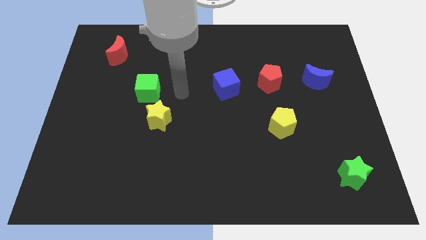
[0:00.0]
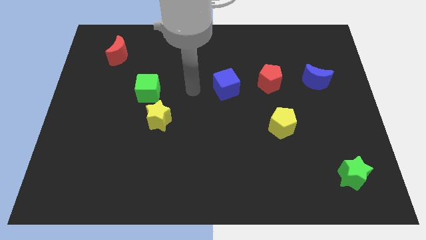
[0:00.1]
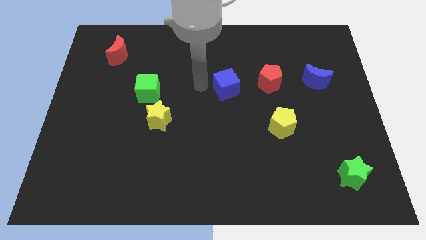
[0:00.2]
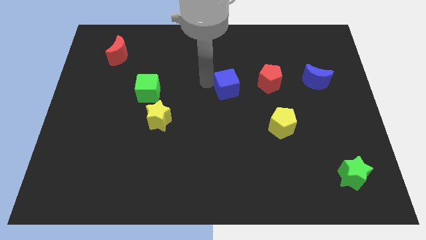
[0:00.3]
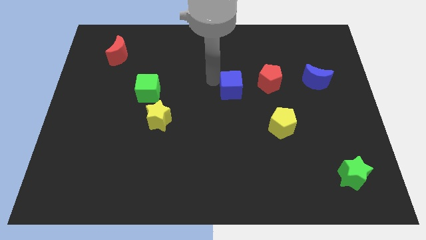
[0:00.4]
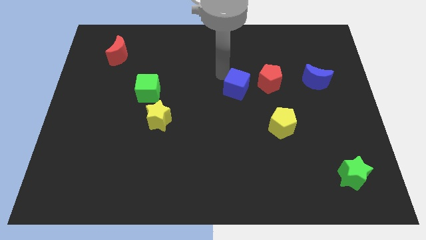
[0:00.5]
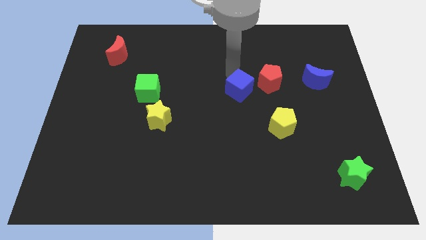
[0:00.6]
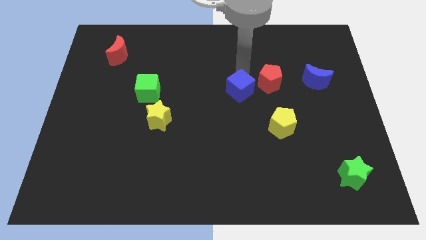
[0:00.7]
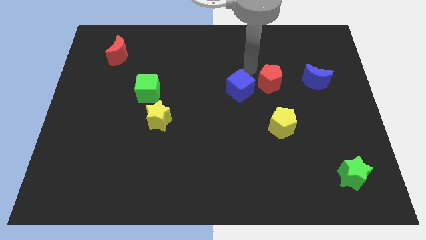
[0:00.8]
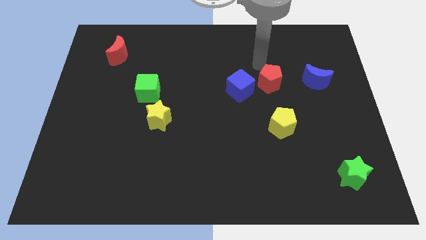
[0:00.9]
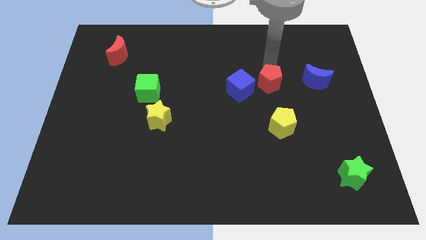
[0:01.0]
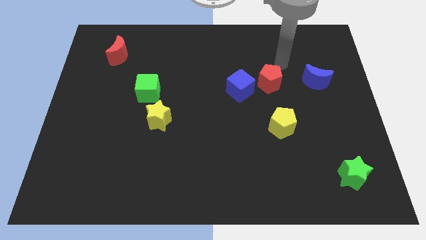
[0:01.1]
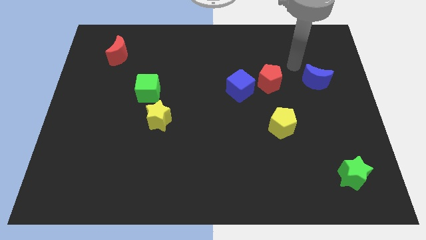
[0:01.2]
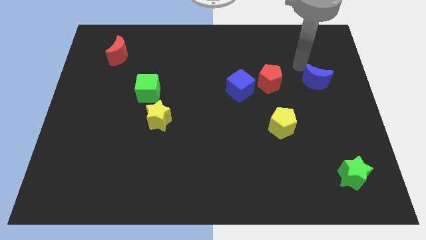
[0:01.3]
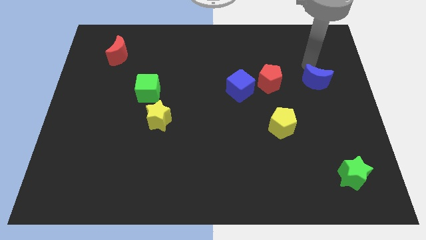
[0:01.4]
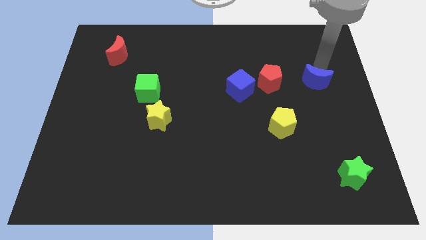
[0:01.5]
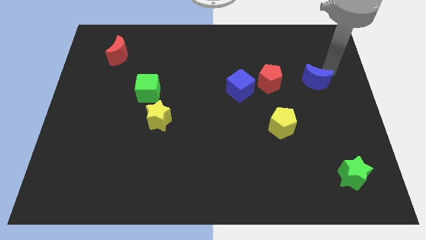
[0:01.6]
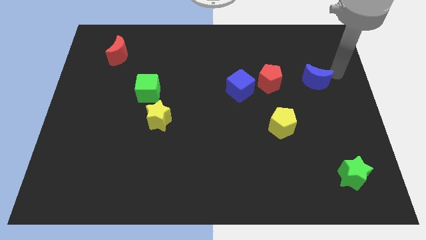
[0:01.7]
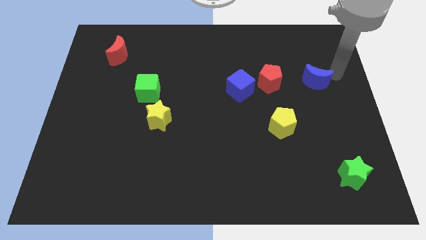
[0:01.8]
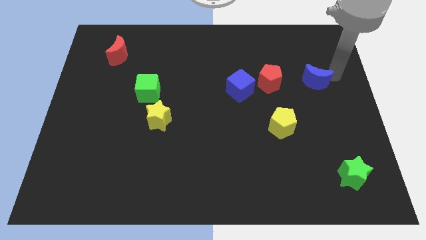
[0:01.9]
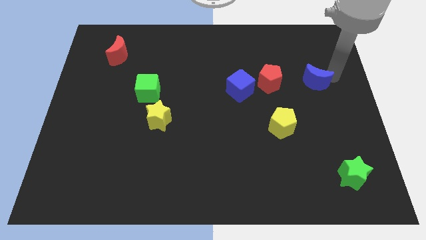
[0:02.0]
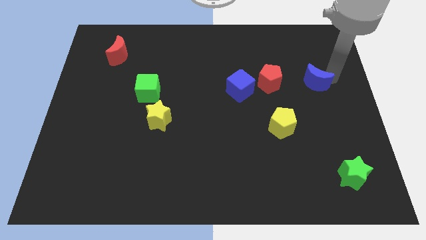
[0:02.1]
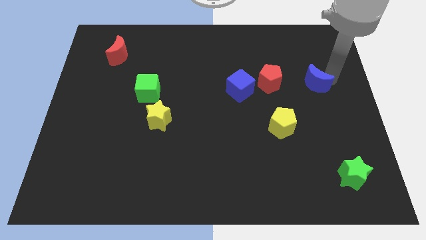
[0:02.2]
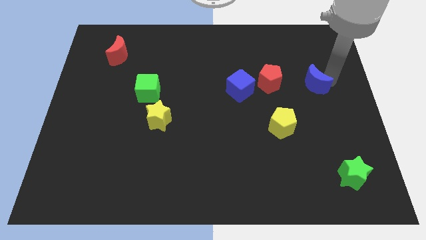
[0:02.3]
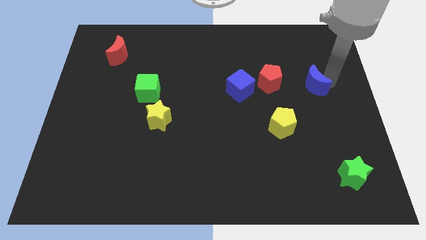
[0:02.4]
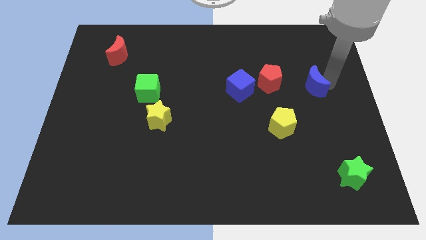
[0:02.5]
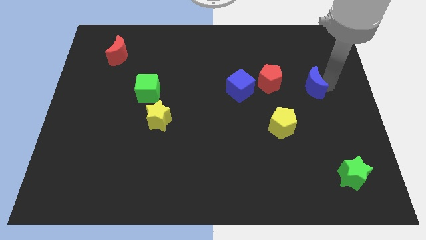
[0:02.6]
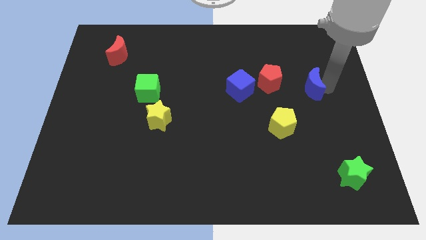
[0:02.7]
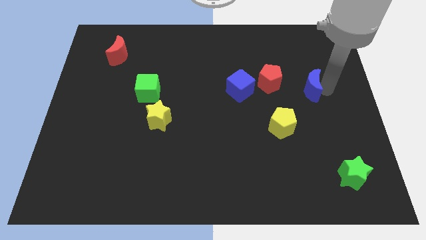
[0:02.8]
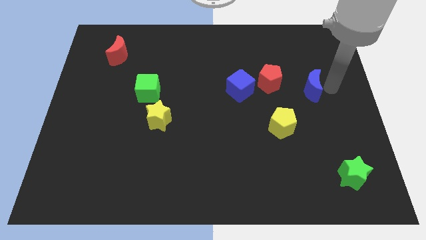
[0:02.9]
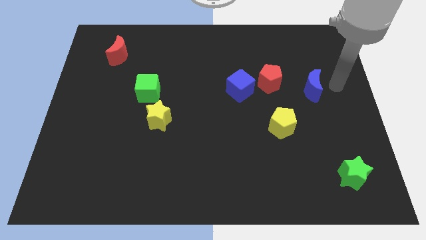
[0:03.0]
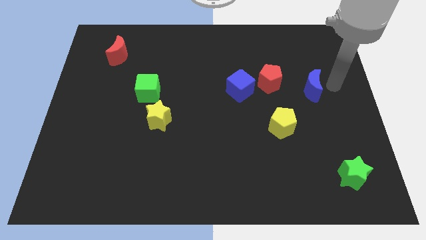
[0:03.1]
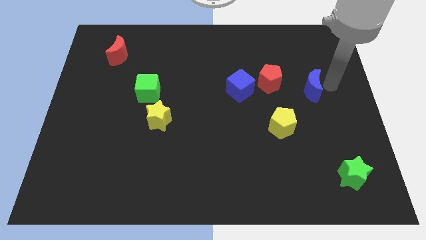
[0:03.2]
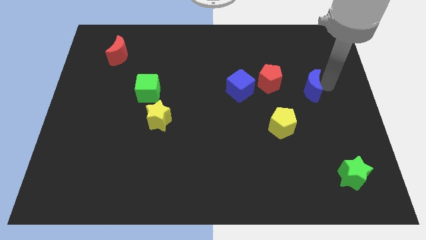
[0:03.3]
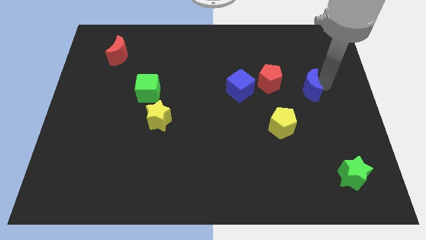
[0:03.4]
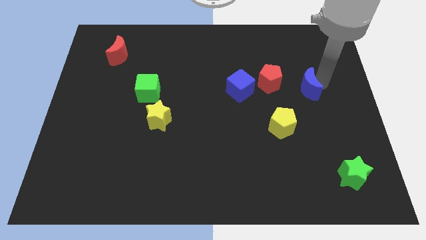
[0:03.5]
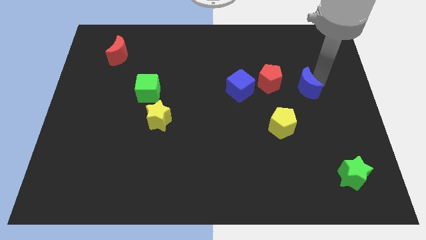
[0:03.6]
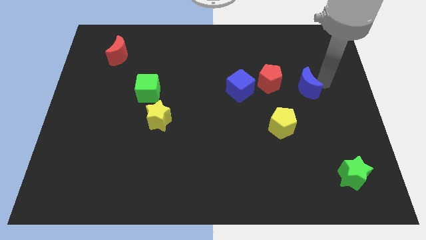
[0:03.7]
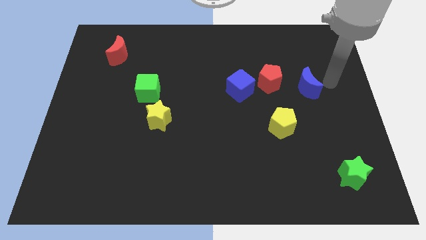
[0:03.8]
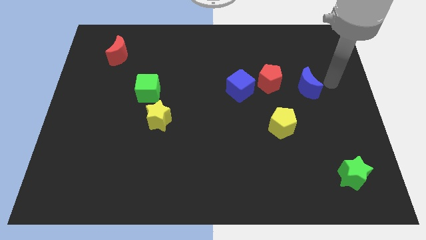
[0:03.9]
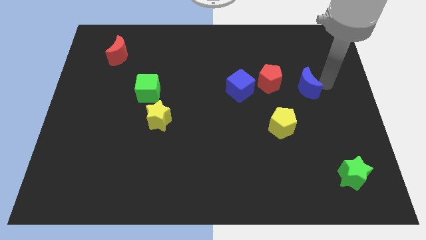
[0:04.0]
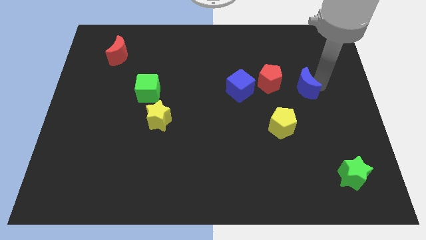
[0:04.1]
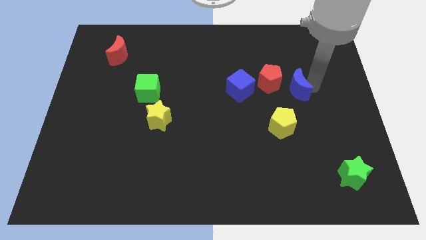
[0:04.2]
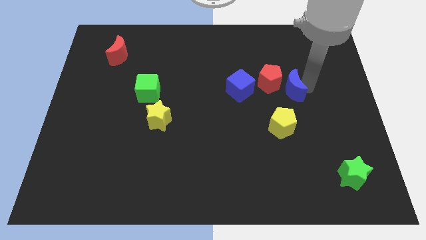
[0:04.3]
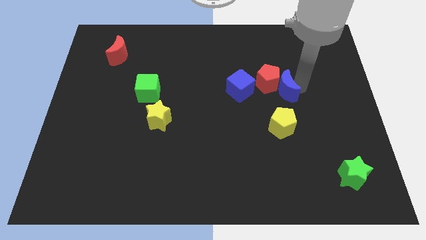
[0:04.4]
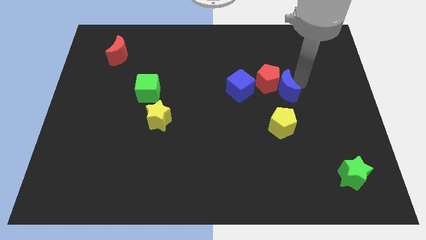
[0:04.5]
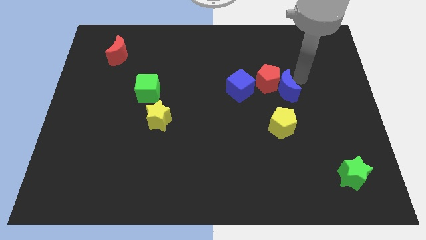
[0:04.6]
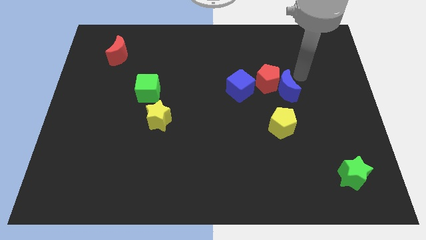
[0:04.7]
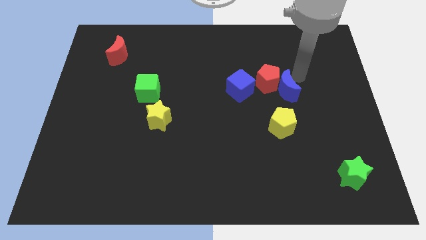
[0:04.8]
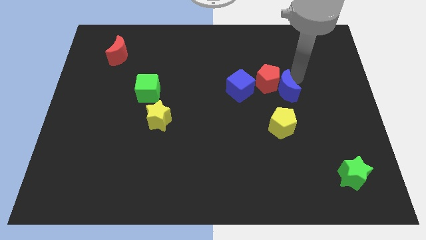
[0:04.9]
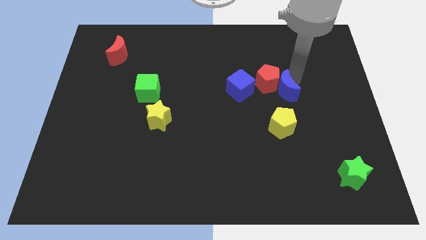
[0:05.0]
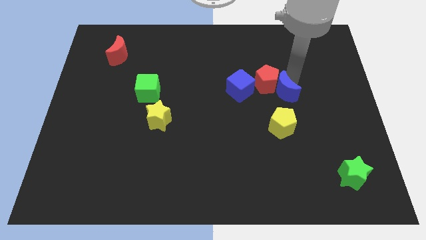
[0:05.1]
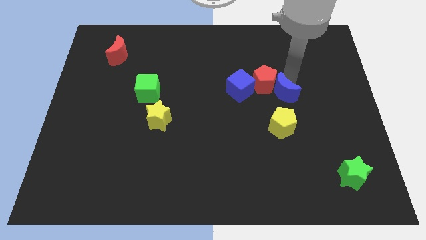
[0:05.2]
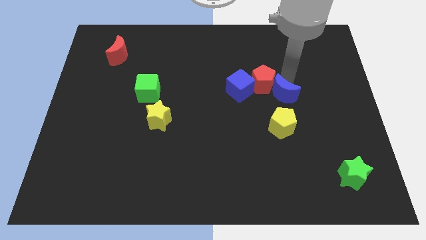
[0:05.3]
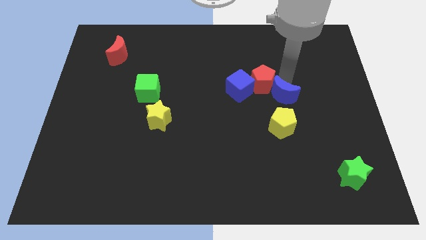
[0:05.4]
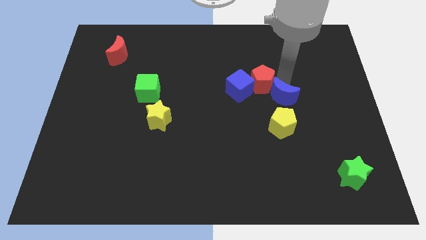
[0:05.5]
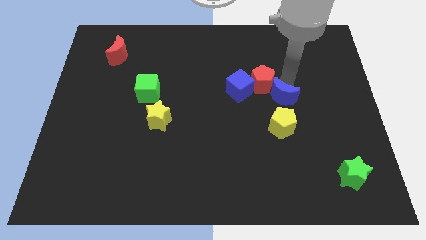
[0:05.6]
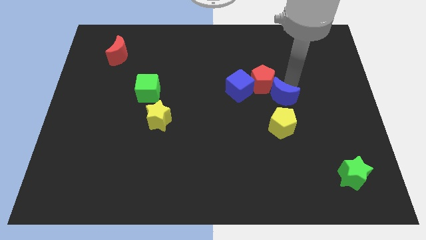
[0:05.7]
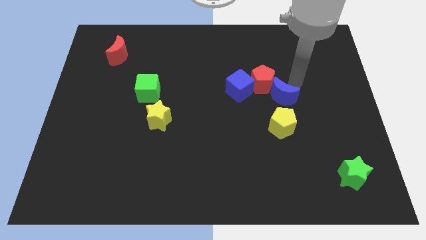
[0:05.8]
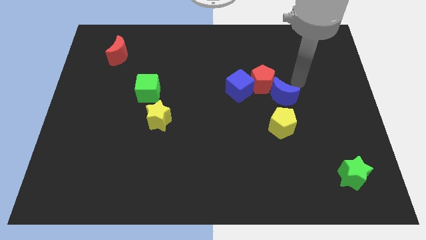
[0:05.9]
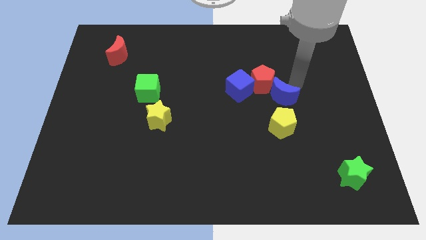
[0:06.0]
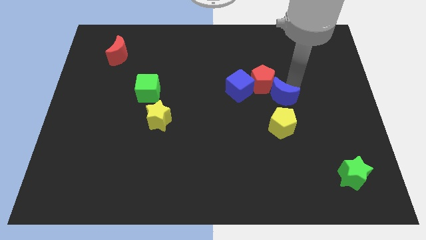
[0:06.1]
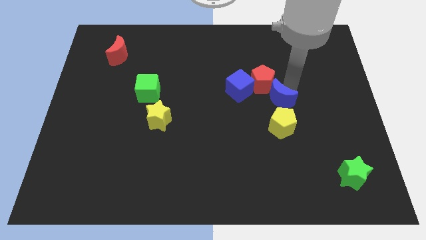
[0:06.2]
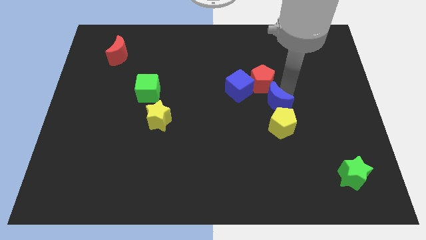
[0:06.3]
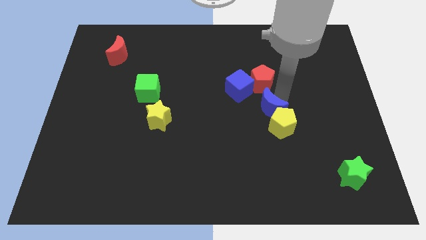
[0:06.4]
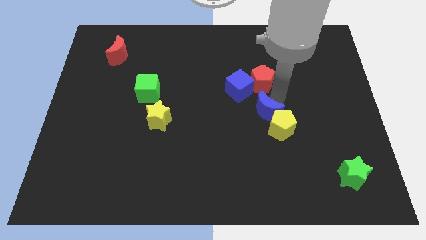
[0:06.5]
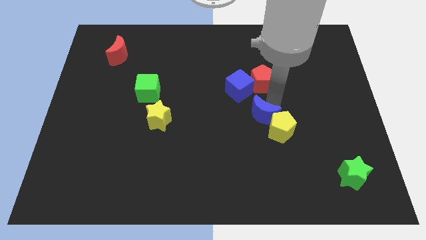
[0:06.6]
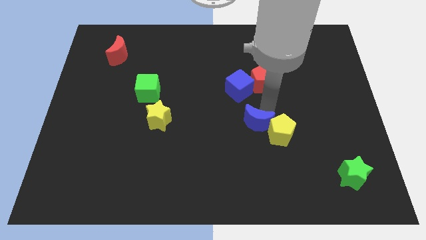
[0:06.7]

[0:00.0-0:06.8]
push the blue moon down and to the left diagonally

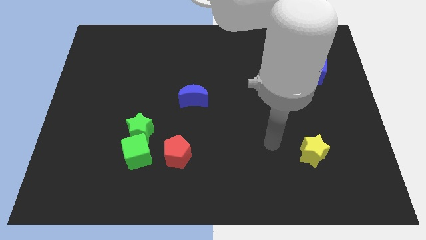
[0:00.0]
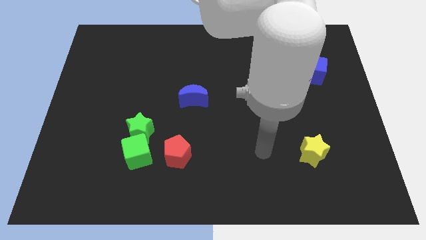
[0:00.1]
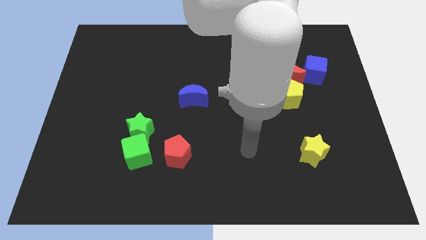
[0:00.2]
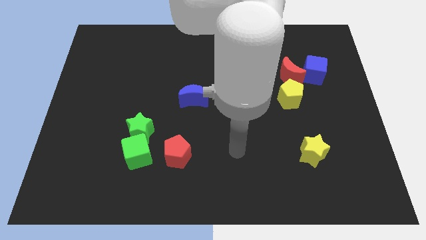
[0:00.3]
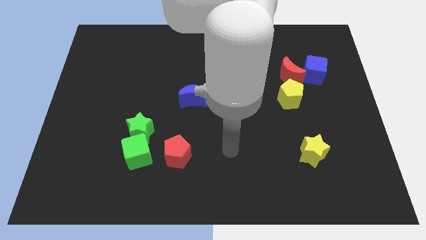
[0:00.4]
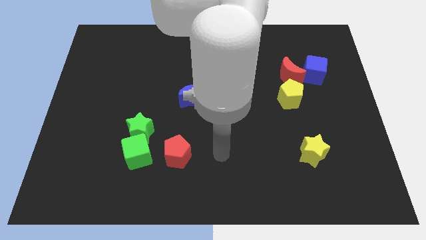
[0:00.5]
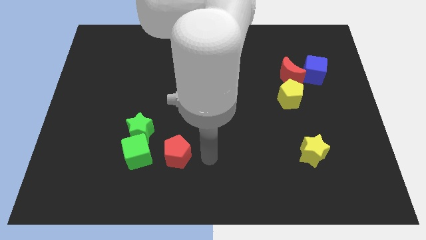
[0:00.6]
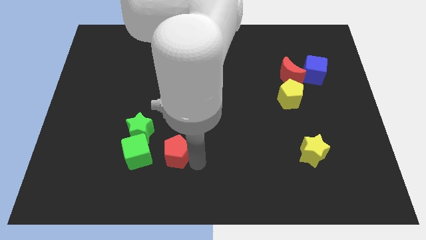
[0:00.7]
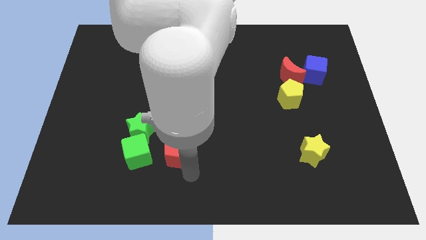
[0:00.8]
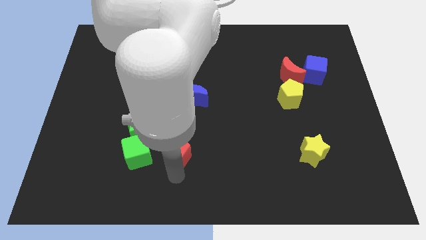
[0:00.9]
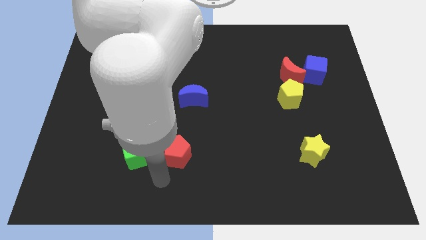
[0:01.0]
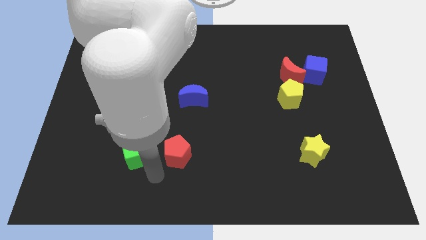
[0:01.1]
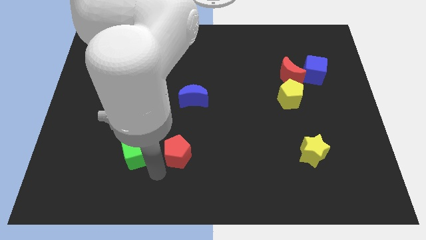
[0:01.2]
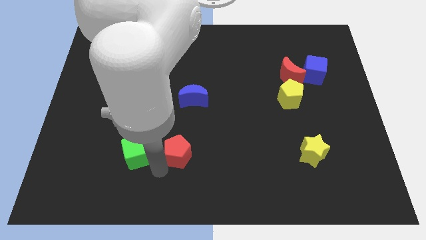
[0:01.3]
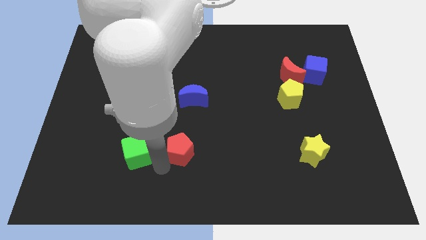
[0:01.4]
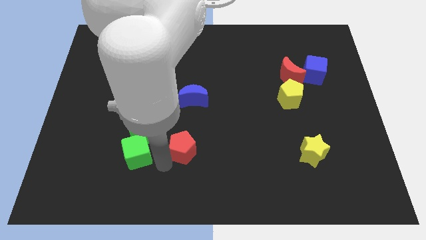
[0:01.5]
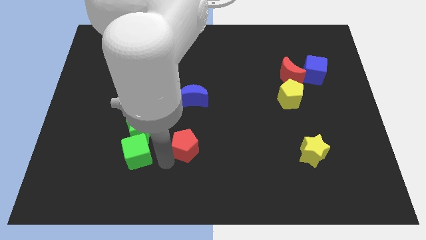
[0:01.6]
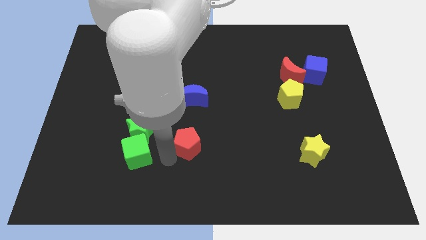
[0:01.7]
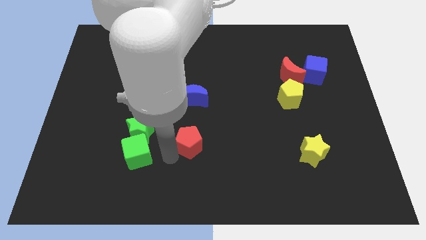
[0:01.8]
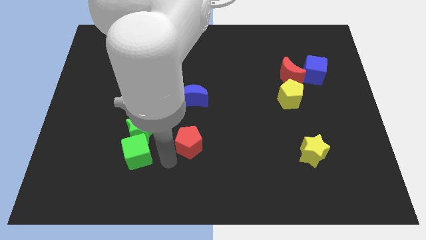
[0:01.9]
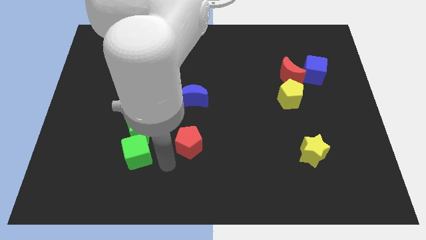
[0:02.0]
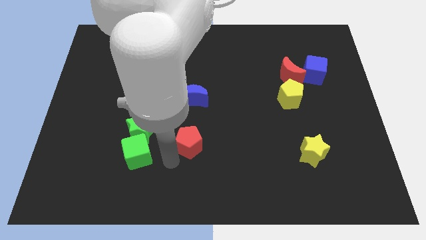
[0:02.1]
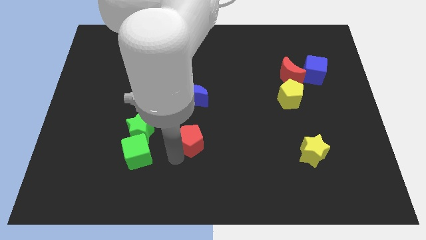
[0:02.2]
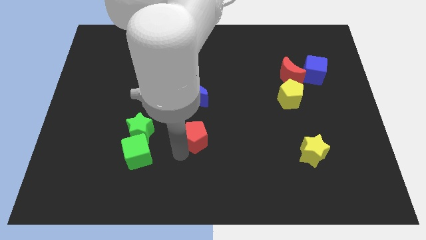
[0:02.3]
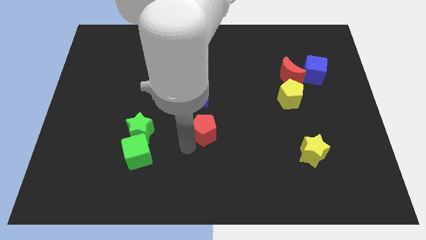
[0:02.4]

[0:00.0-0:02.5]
slide the red pentagon diagonally upwards and right somewhat
